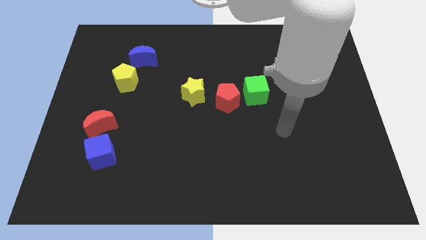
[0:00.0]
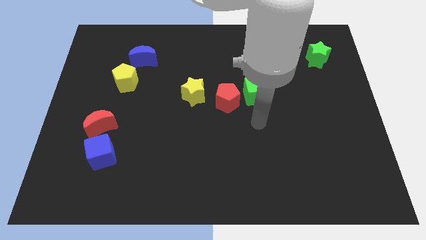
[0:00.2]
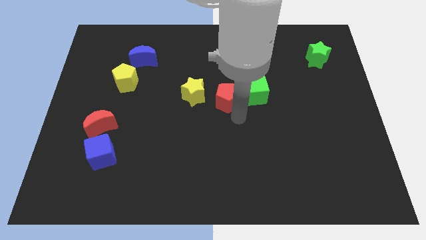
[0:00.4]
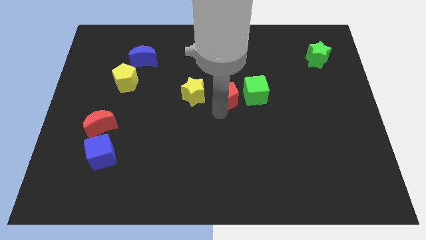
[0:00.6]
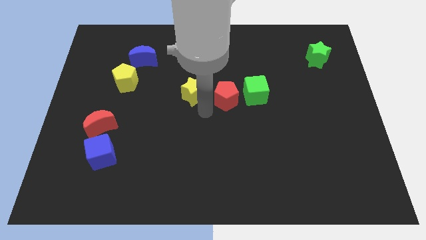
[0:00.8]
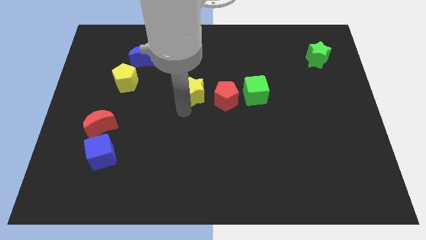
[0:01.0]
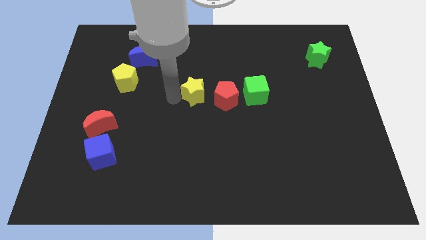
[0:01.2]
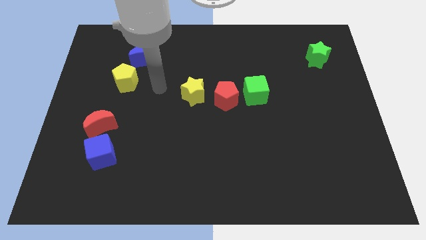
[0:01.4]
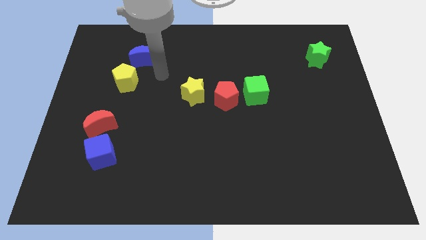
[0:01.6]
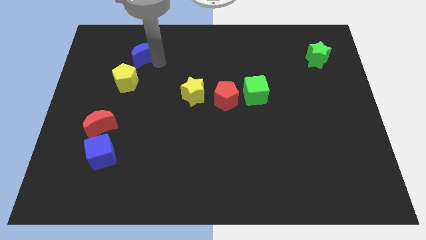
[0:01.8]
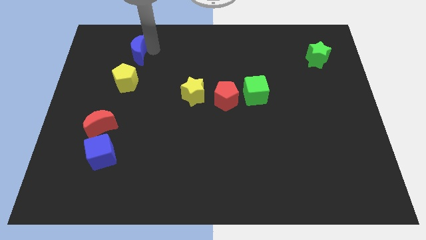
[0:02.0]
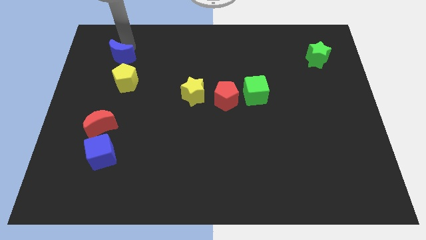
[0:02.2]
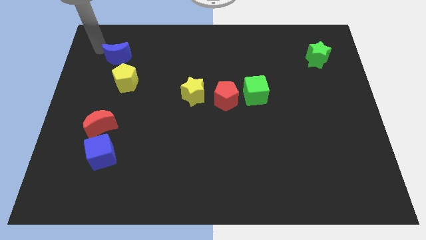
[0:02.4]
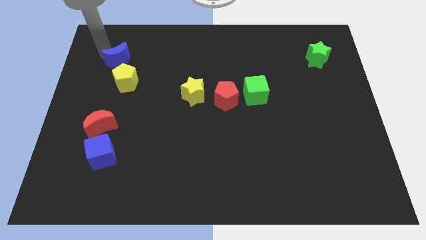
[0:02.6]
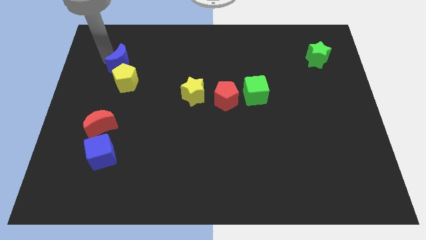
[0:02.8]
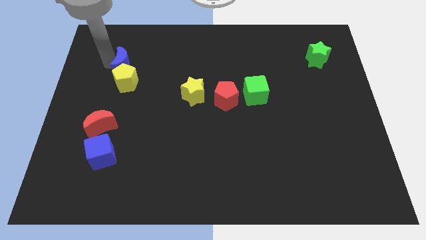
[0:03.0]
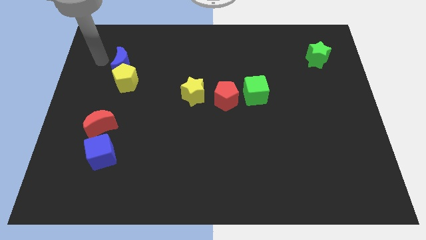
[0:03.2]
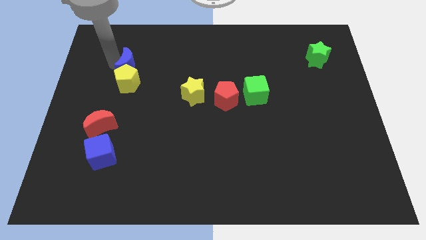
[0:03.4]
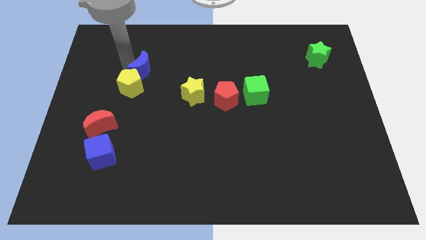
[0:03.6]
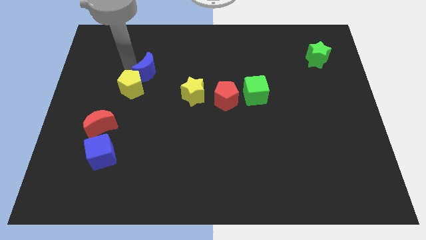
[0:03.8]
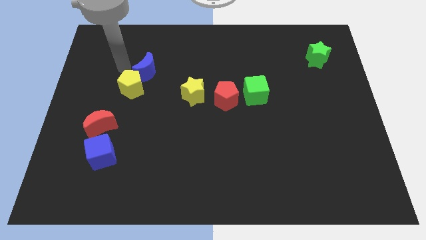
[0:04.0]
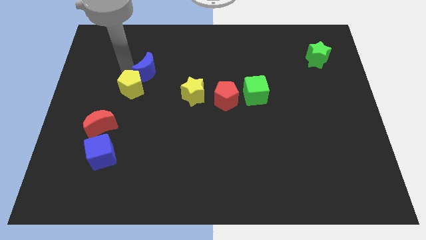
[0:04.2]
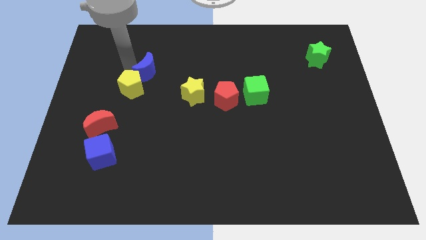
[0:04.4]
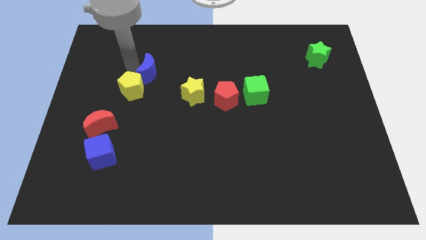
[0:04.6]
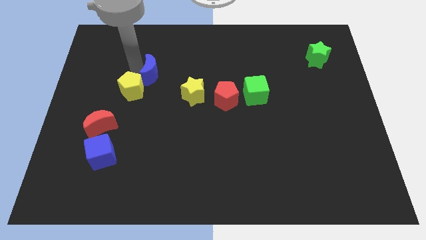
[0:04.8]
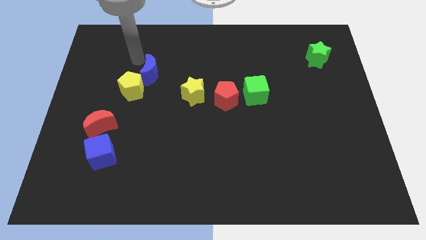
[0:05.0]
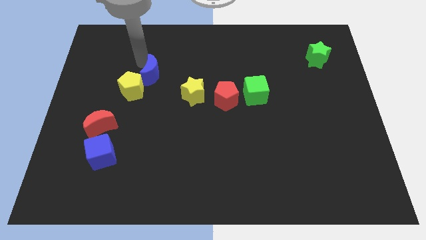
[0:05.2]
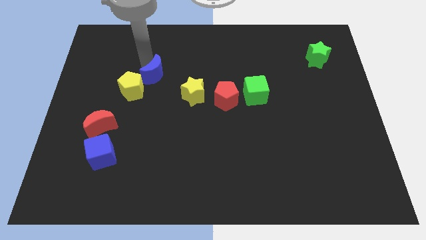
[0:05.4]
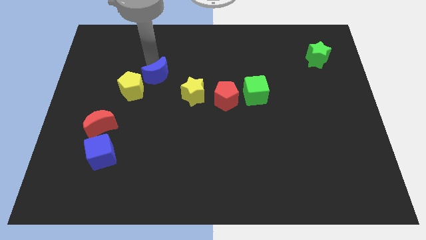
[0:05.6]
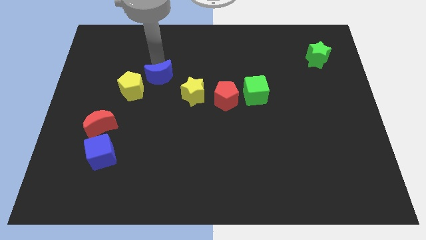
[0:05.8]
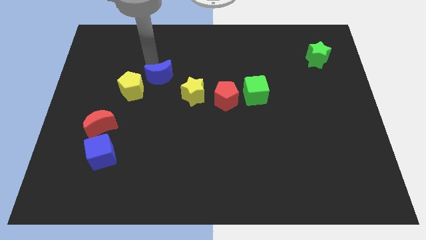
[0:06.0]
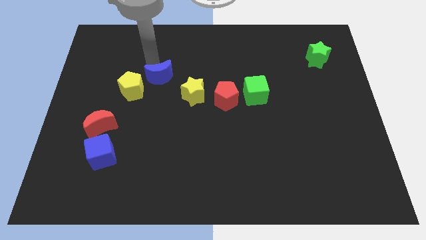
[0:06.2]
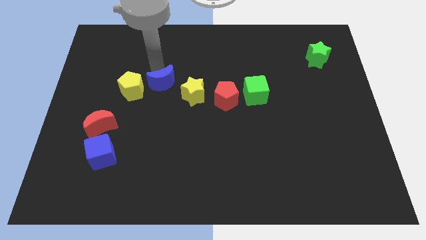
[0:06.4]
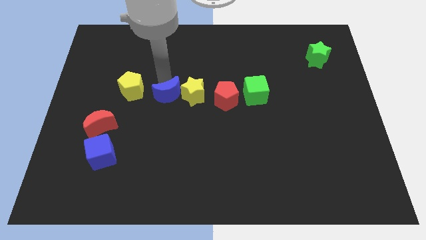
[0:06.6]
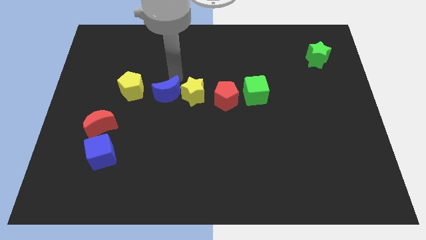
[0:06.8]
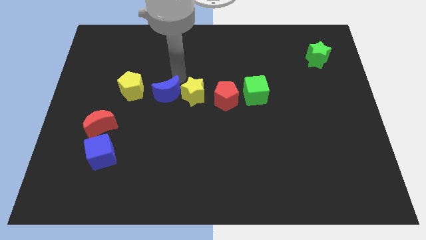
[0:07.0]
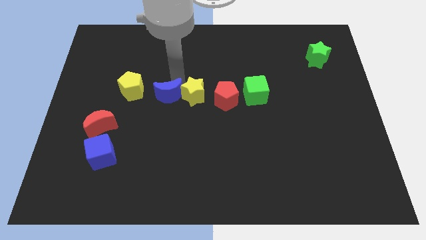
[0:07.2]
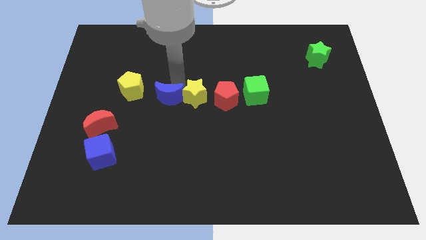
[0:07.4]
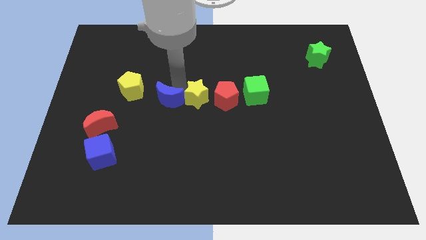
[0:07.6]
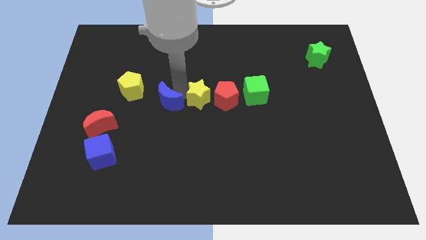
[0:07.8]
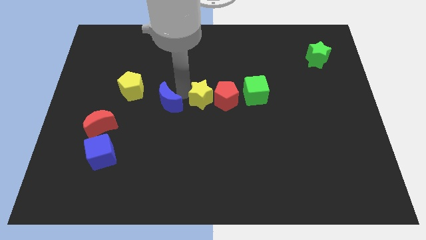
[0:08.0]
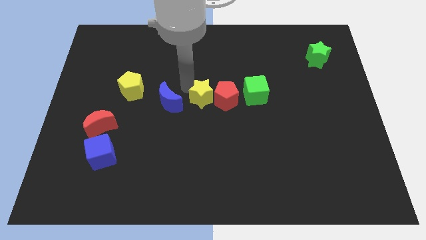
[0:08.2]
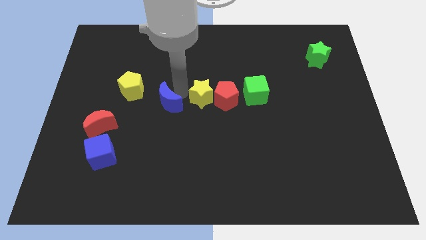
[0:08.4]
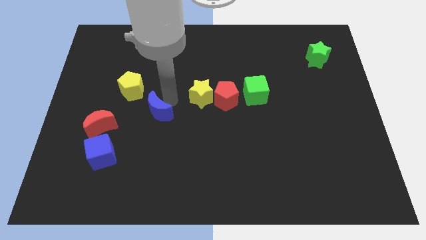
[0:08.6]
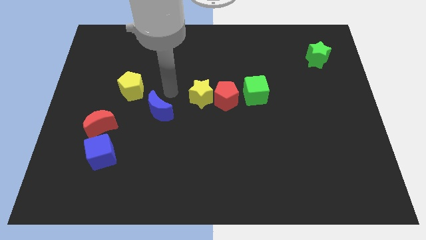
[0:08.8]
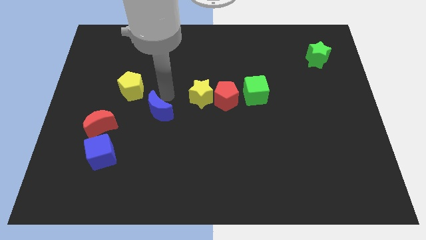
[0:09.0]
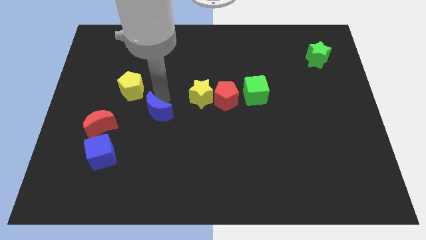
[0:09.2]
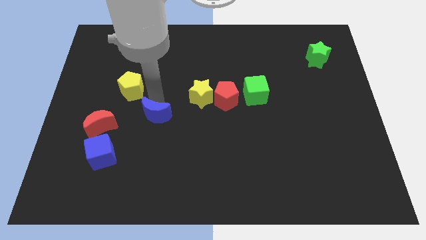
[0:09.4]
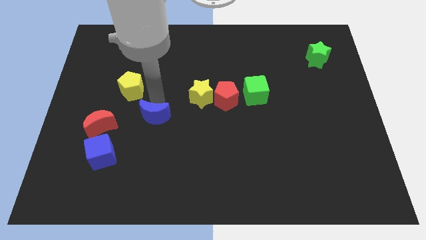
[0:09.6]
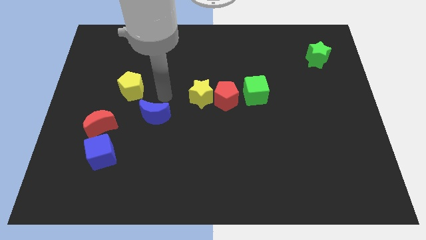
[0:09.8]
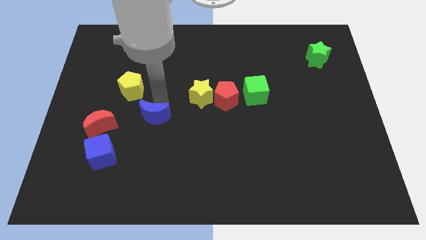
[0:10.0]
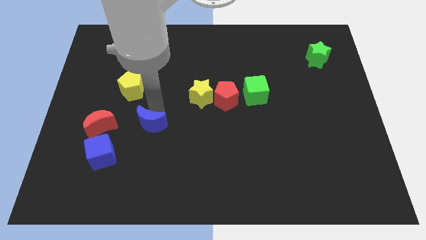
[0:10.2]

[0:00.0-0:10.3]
push the blue moon down

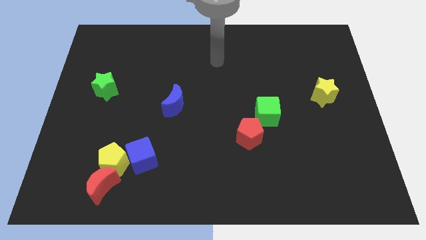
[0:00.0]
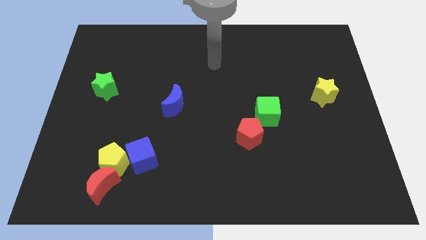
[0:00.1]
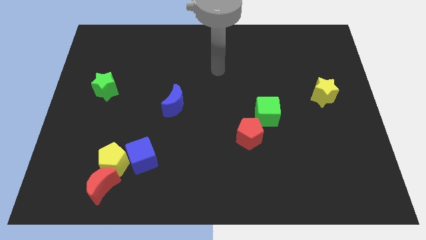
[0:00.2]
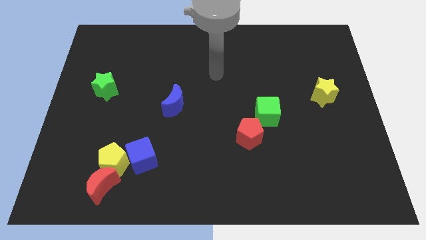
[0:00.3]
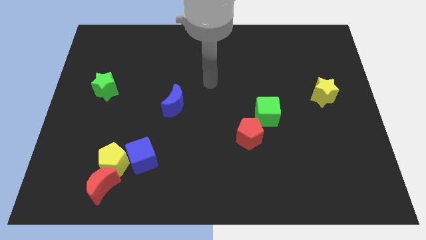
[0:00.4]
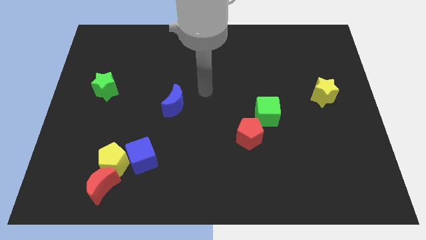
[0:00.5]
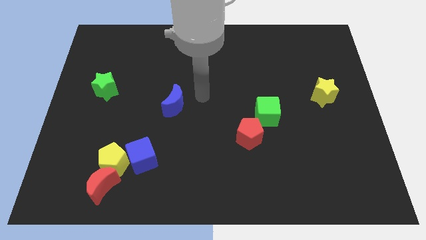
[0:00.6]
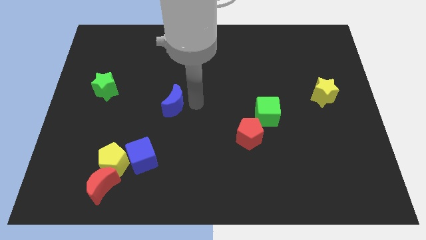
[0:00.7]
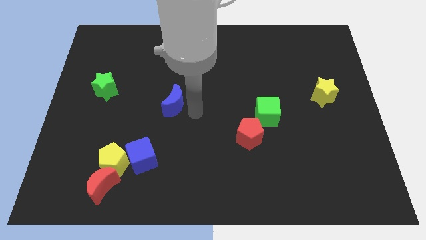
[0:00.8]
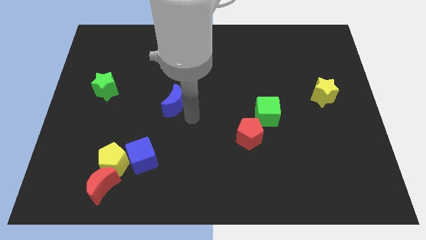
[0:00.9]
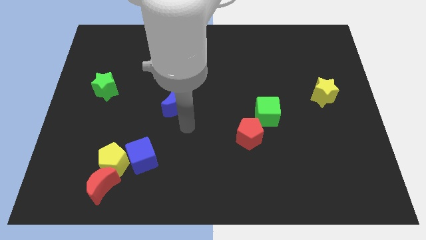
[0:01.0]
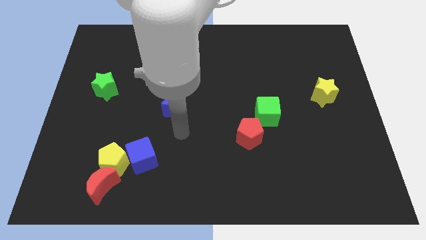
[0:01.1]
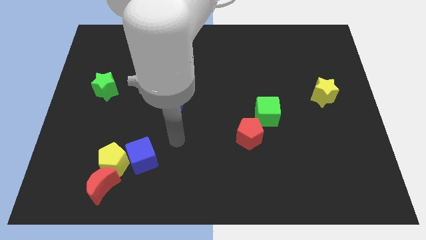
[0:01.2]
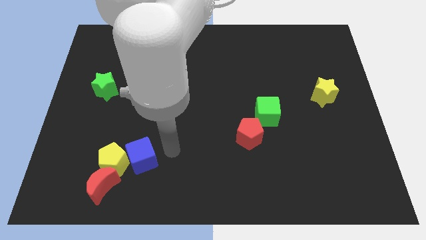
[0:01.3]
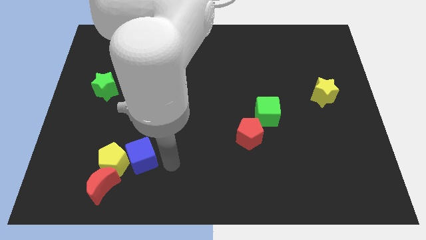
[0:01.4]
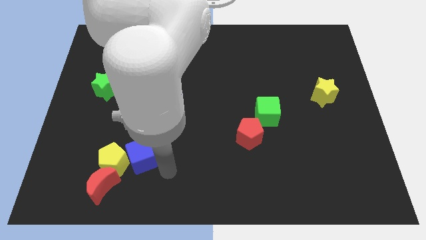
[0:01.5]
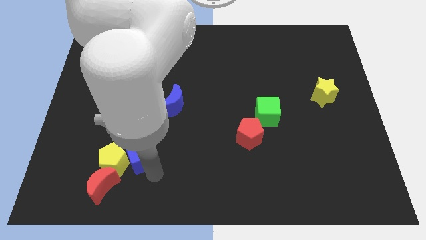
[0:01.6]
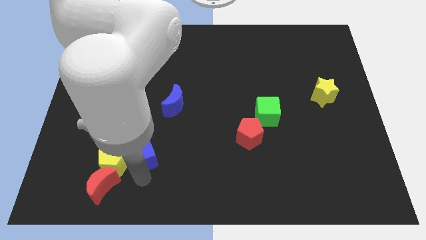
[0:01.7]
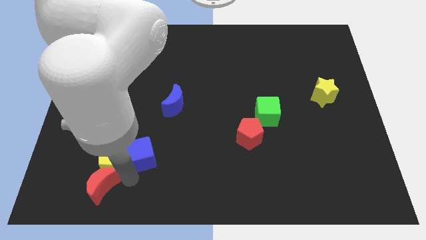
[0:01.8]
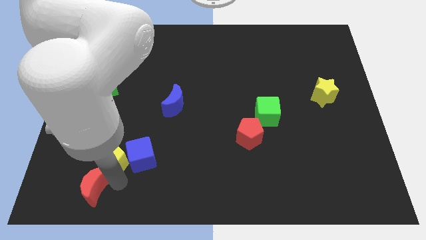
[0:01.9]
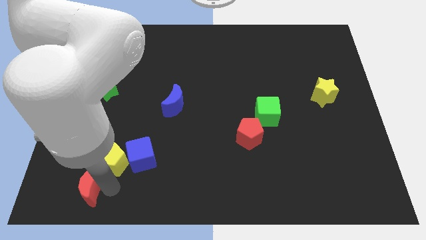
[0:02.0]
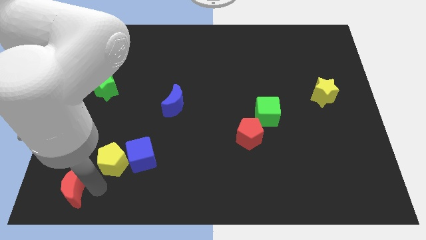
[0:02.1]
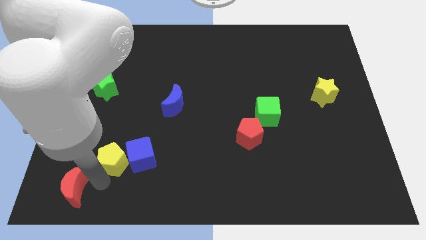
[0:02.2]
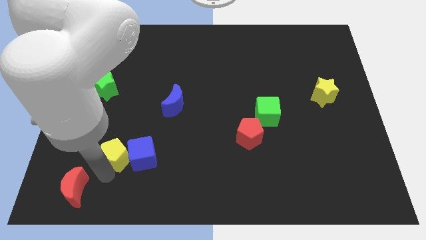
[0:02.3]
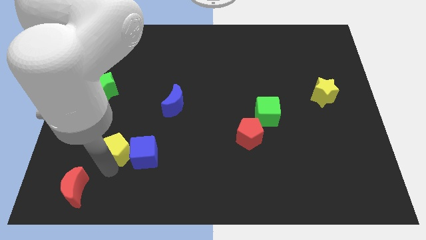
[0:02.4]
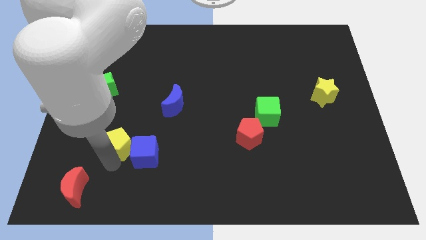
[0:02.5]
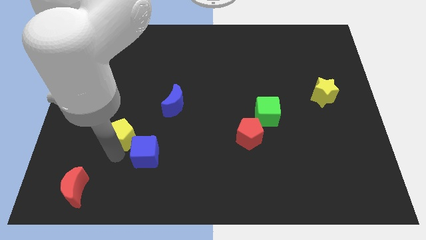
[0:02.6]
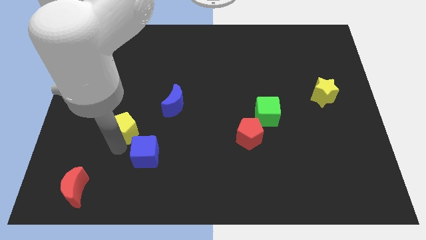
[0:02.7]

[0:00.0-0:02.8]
slightly move the yellow pentagon up
